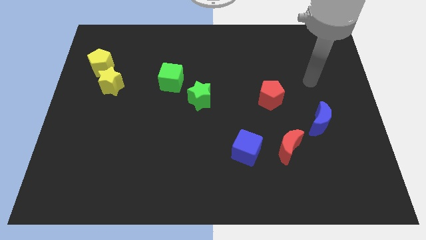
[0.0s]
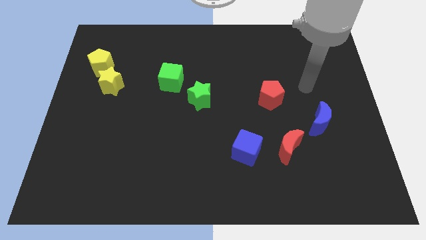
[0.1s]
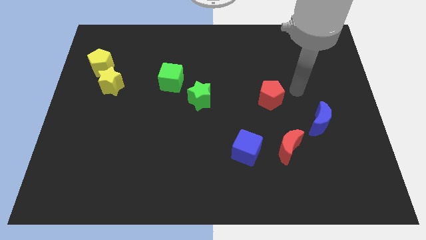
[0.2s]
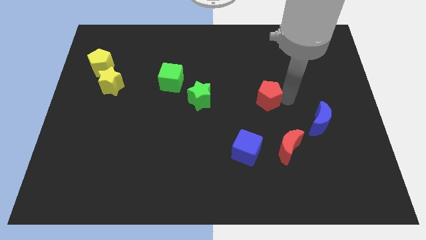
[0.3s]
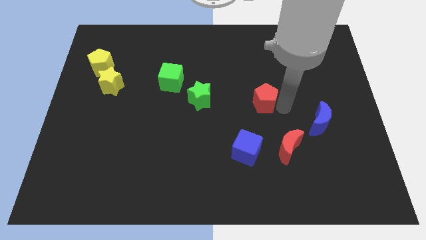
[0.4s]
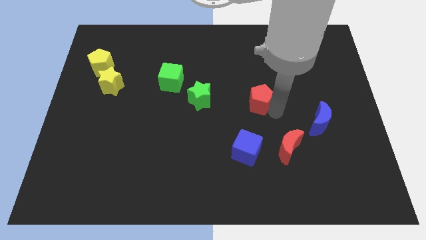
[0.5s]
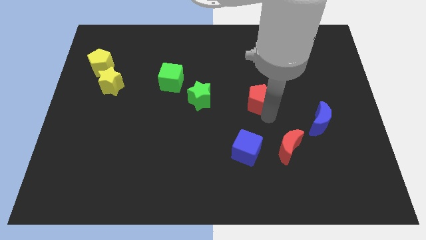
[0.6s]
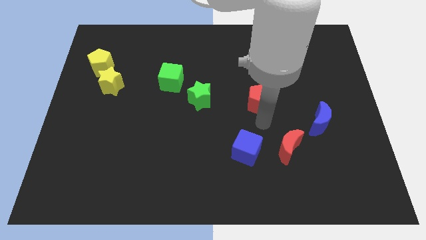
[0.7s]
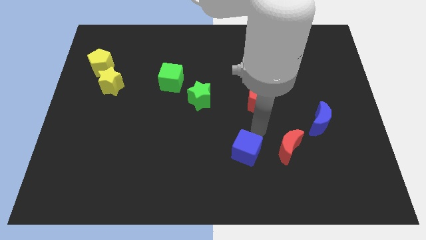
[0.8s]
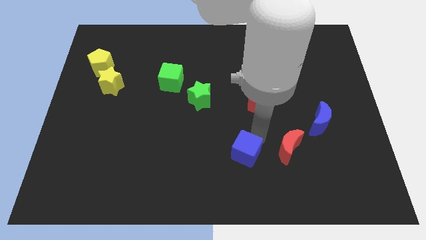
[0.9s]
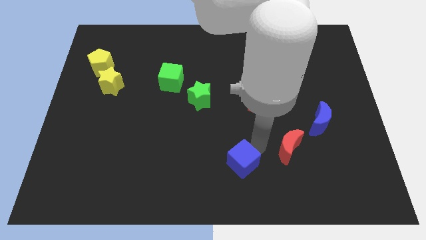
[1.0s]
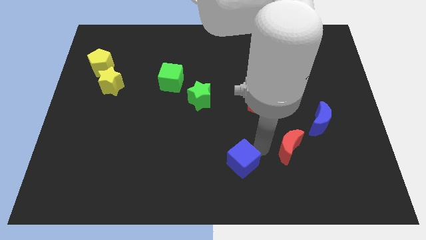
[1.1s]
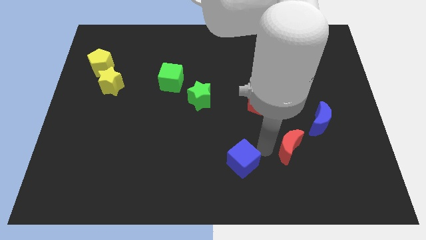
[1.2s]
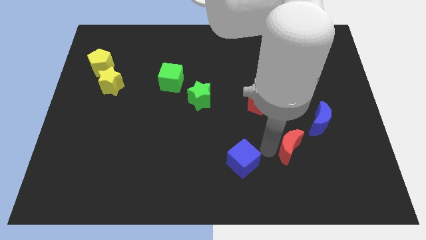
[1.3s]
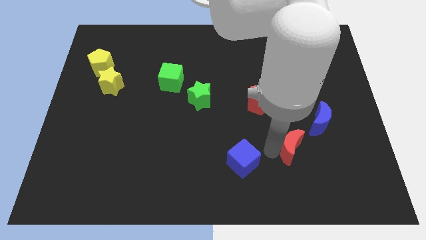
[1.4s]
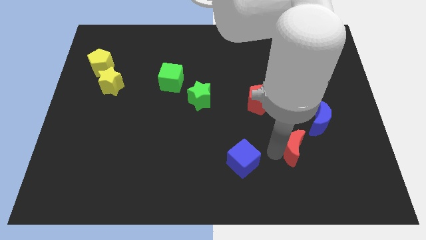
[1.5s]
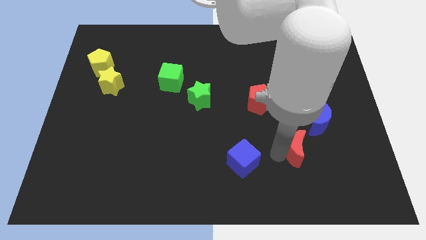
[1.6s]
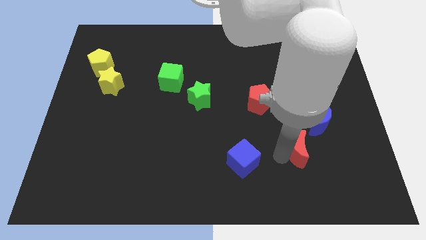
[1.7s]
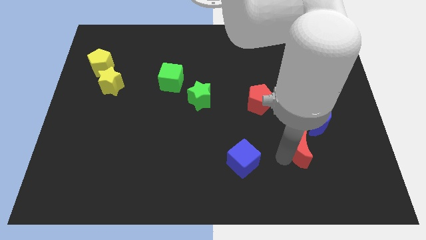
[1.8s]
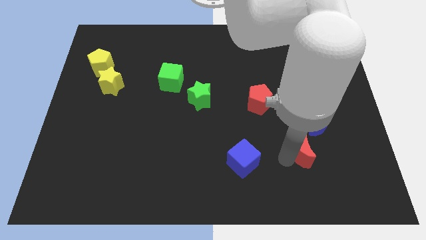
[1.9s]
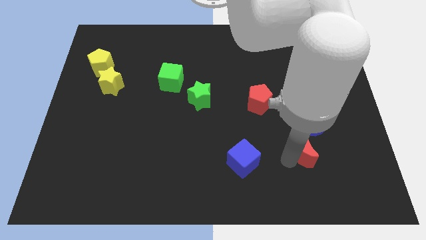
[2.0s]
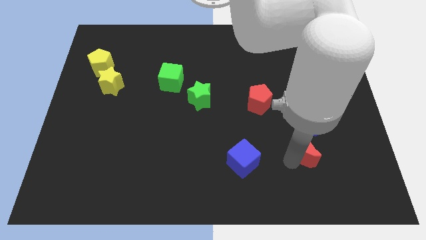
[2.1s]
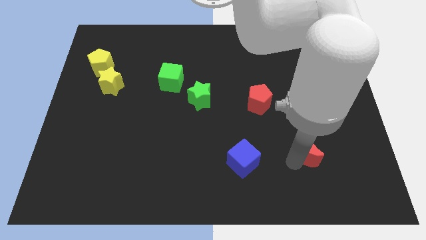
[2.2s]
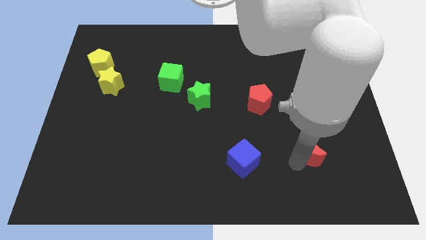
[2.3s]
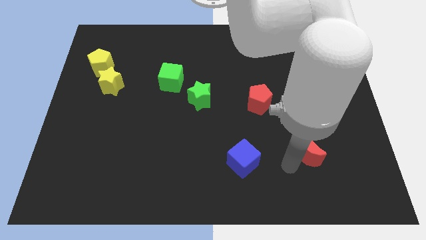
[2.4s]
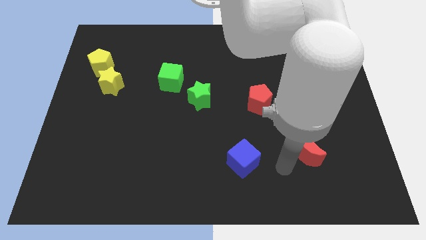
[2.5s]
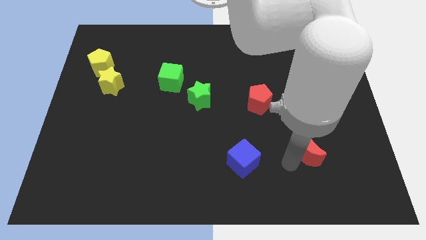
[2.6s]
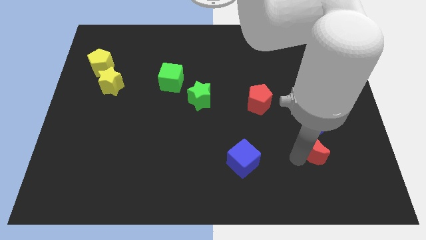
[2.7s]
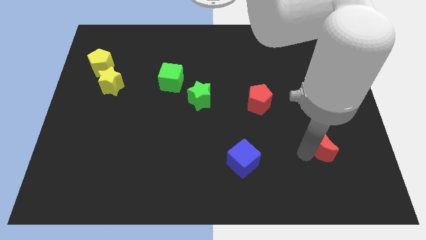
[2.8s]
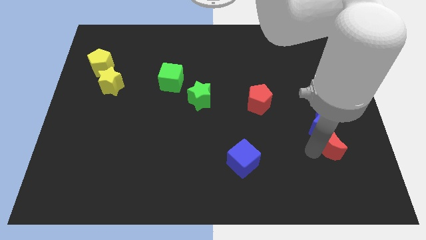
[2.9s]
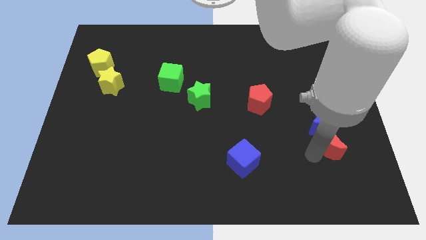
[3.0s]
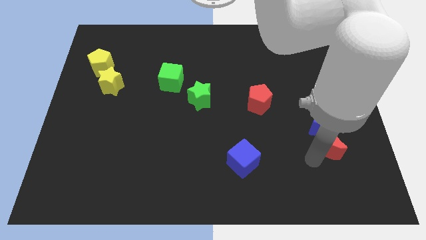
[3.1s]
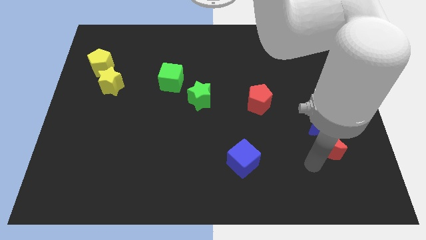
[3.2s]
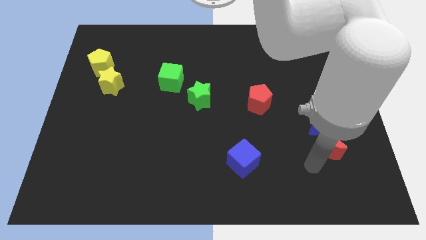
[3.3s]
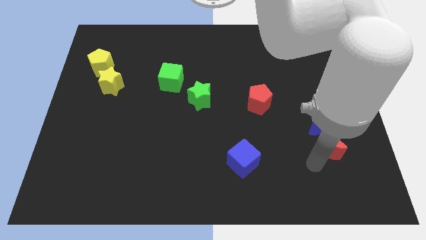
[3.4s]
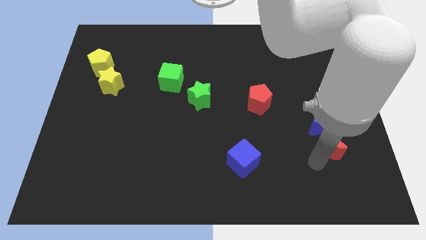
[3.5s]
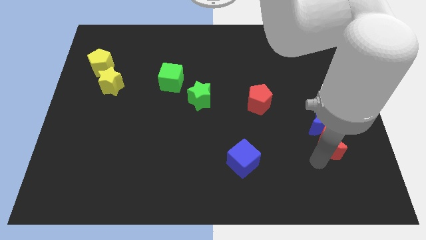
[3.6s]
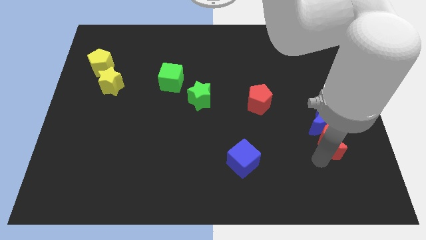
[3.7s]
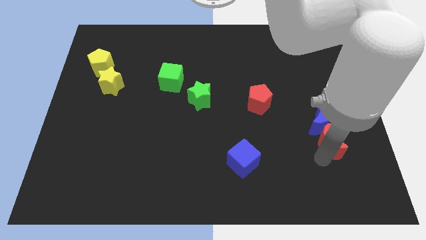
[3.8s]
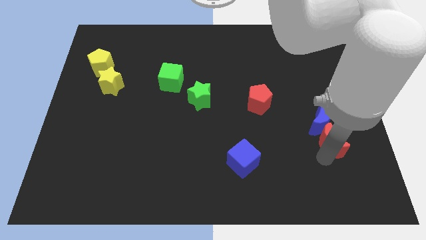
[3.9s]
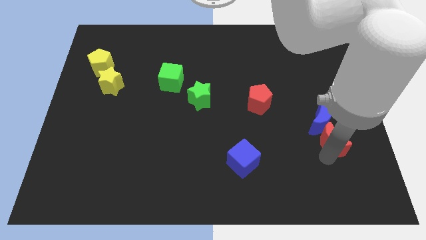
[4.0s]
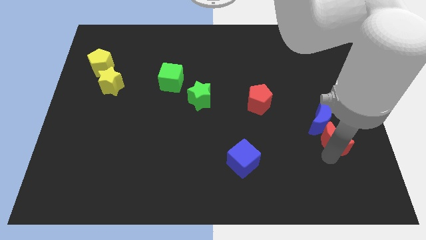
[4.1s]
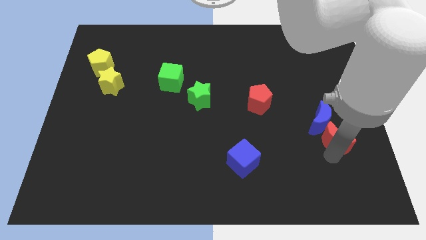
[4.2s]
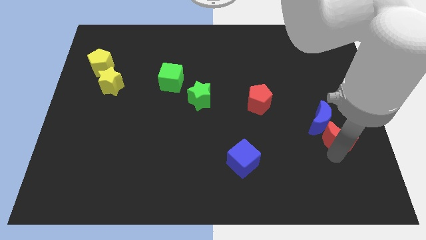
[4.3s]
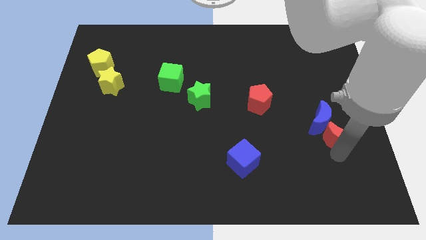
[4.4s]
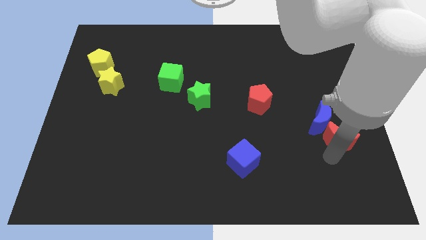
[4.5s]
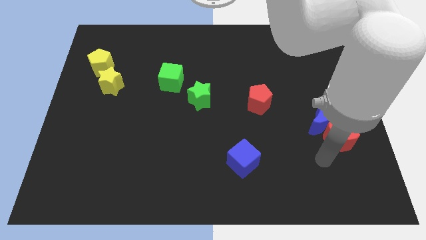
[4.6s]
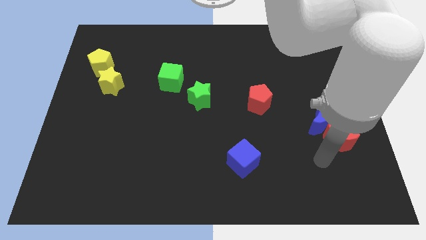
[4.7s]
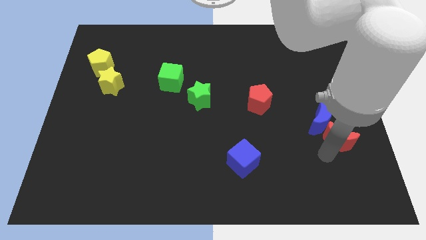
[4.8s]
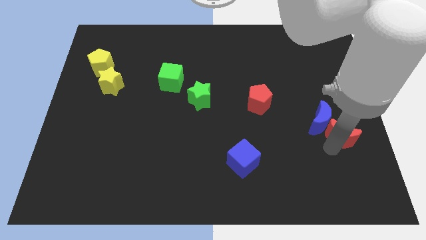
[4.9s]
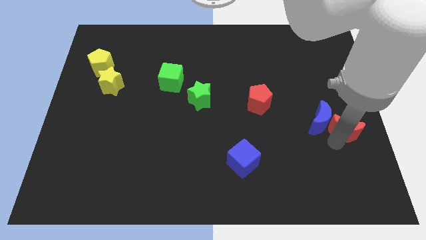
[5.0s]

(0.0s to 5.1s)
push the red moon to the right side
